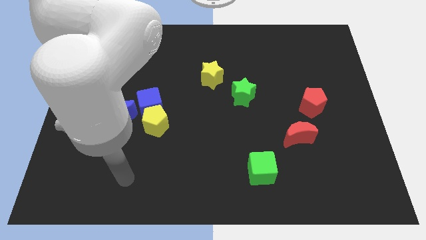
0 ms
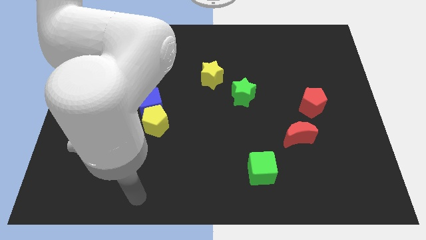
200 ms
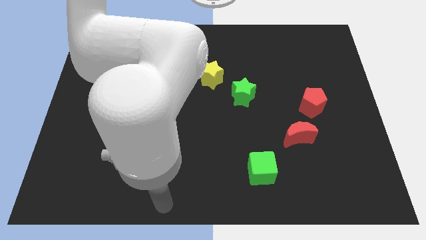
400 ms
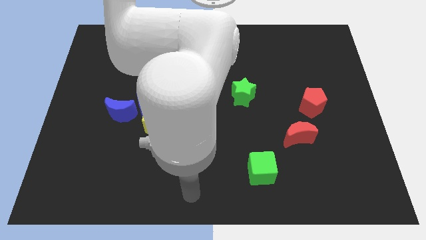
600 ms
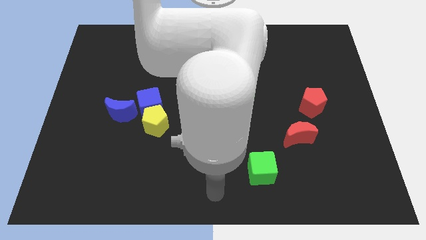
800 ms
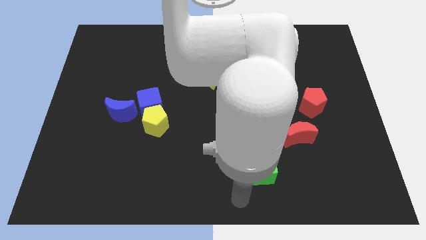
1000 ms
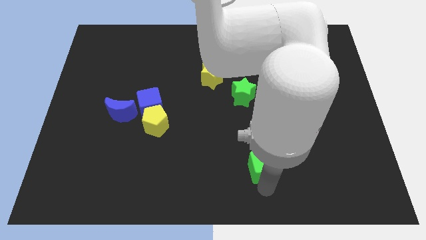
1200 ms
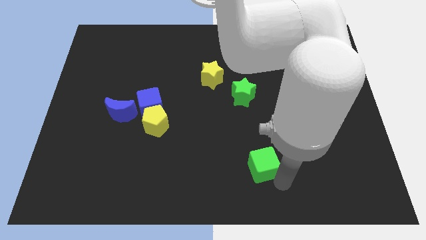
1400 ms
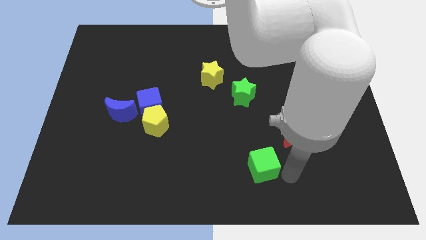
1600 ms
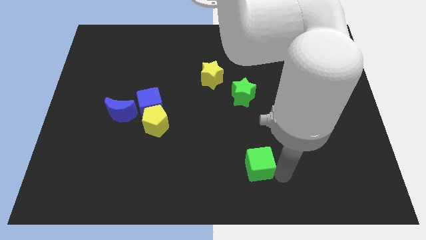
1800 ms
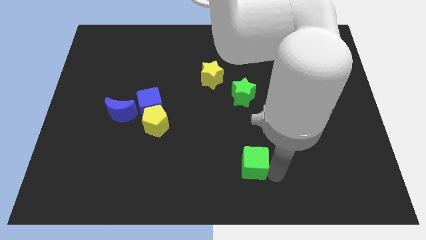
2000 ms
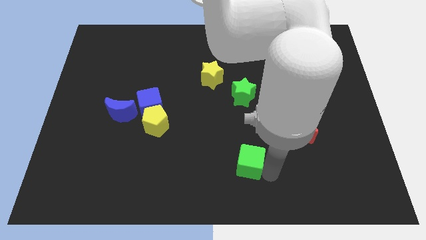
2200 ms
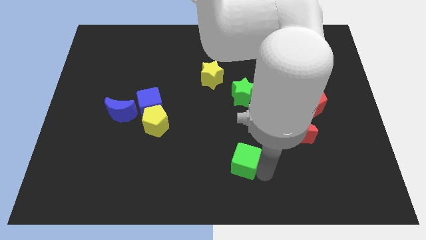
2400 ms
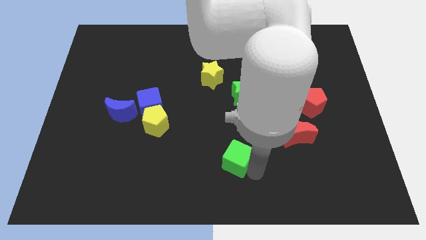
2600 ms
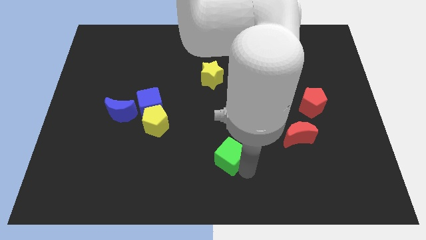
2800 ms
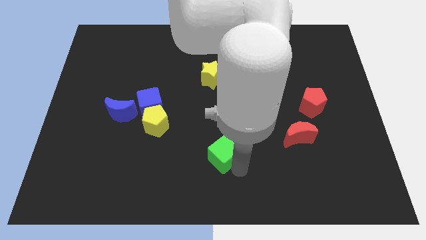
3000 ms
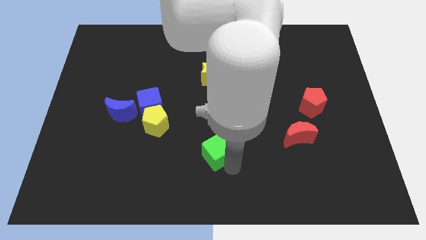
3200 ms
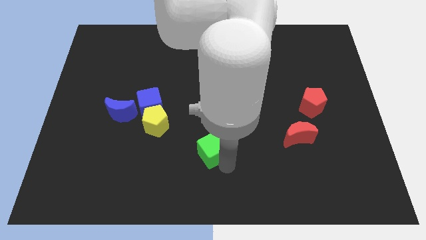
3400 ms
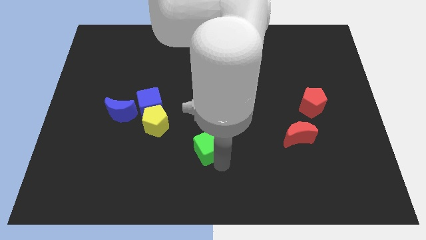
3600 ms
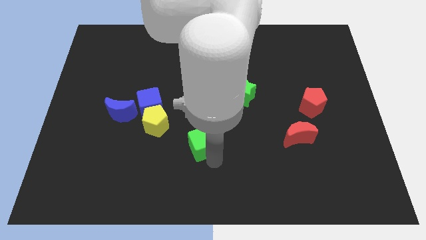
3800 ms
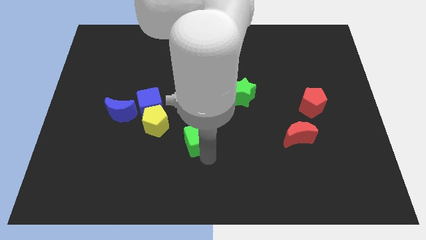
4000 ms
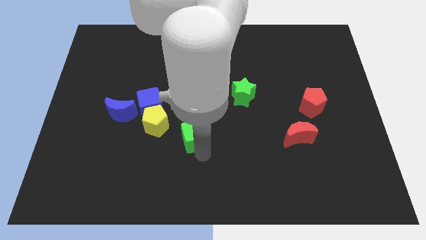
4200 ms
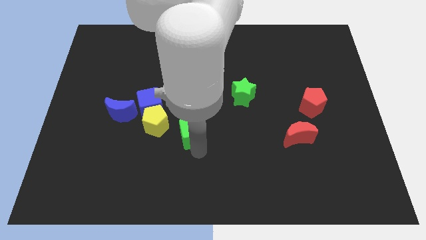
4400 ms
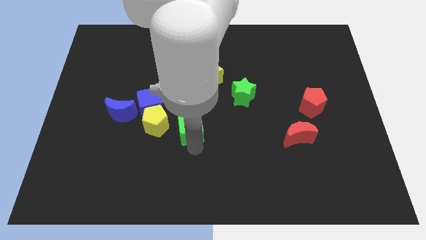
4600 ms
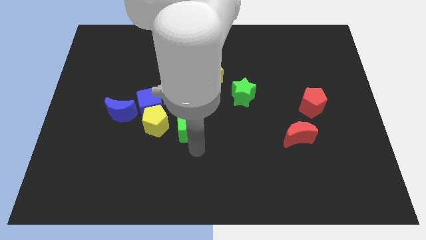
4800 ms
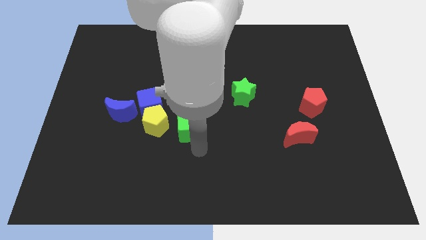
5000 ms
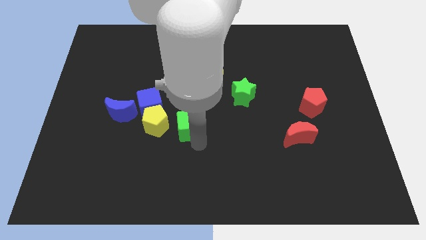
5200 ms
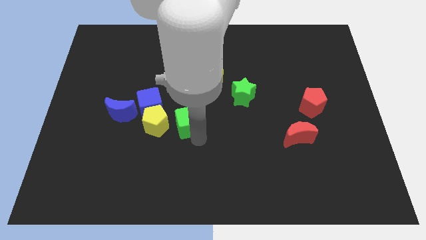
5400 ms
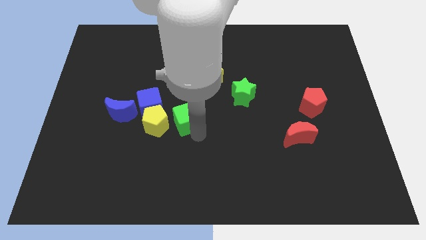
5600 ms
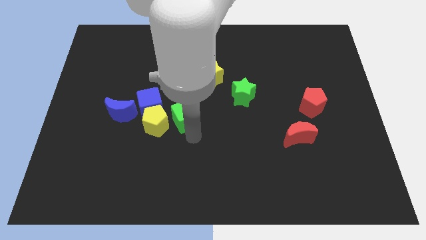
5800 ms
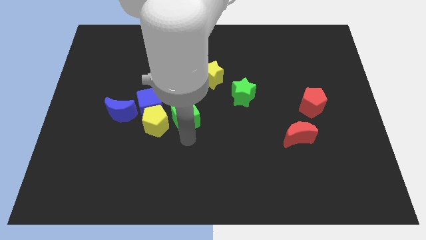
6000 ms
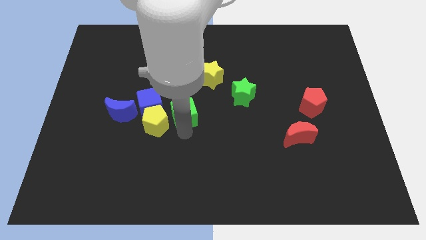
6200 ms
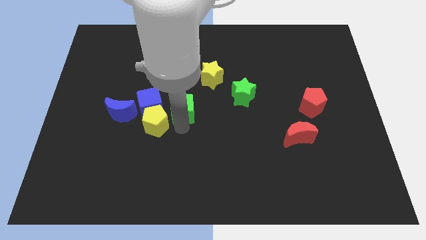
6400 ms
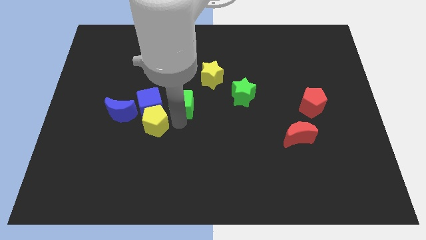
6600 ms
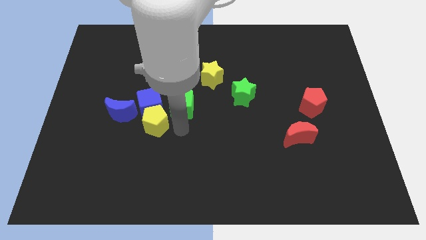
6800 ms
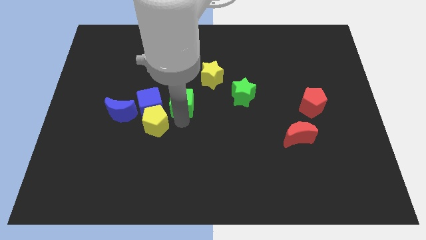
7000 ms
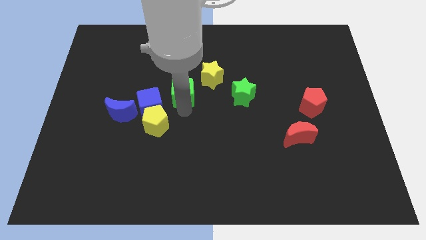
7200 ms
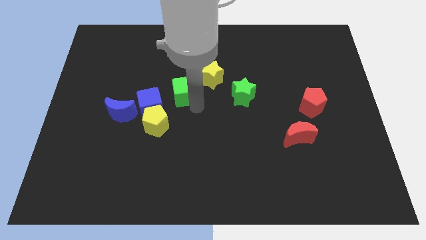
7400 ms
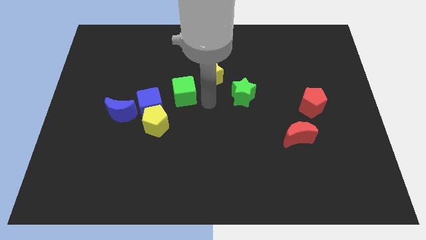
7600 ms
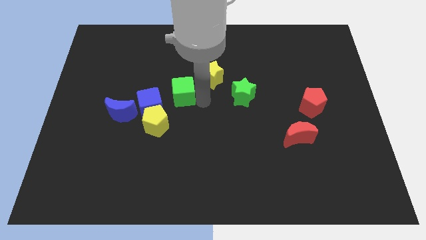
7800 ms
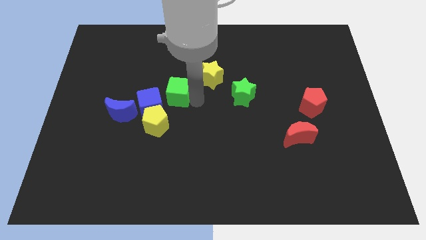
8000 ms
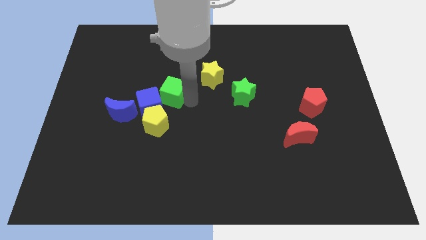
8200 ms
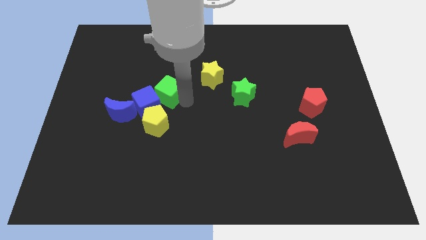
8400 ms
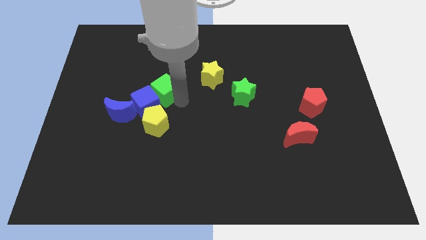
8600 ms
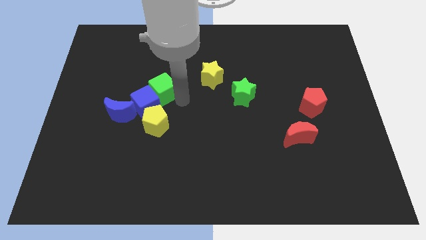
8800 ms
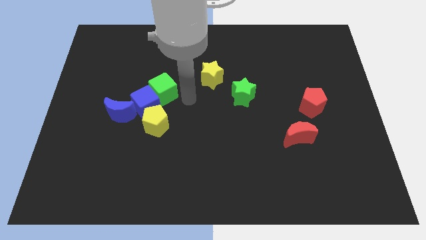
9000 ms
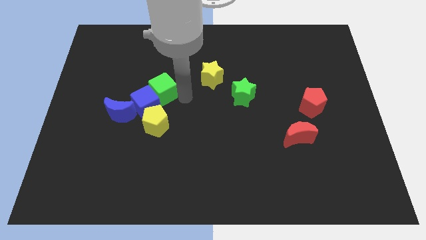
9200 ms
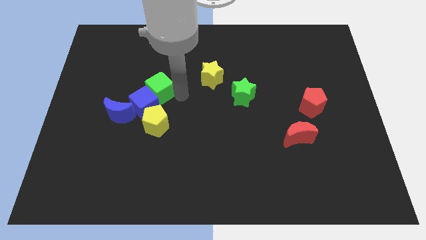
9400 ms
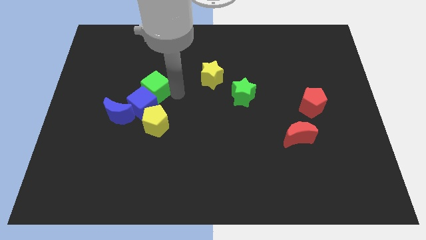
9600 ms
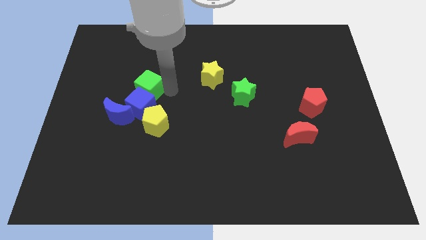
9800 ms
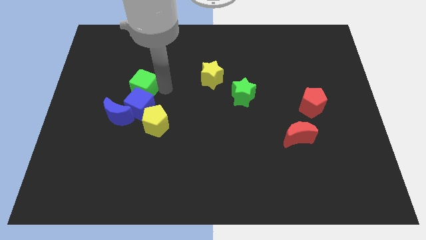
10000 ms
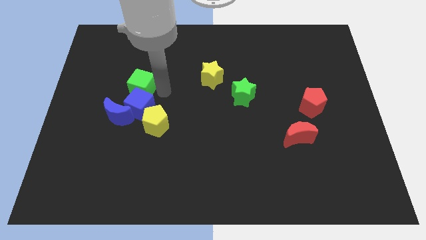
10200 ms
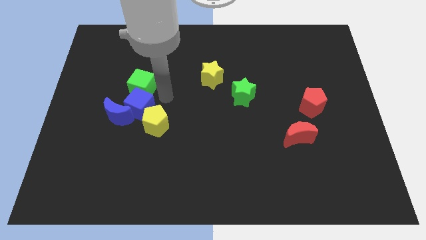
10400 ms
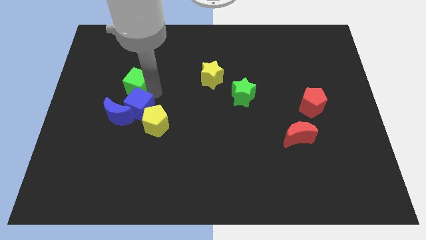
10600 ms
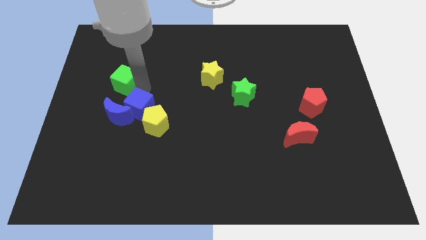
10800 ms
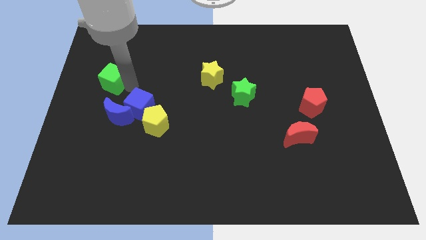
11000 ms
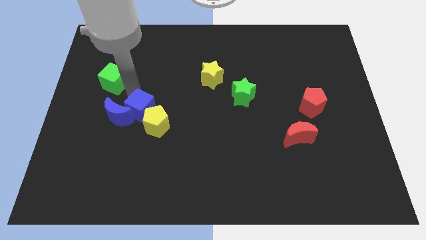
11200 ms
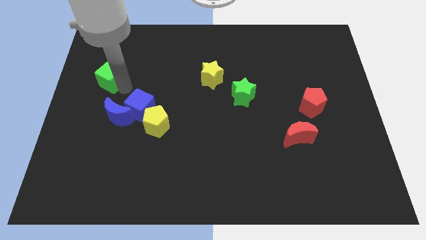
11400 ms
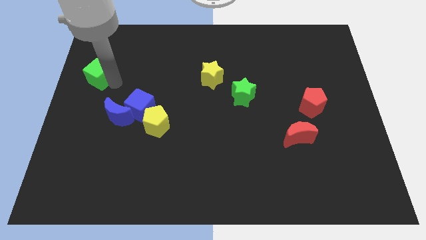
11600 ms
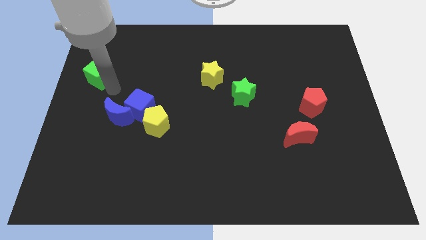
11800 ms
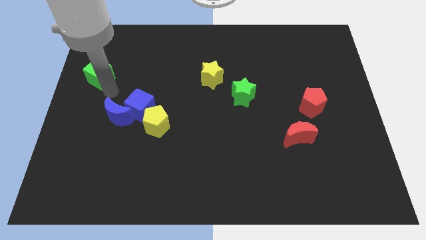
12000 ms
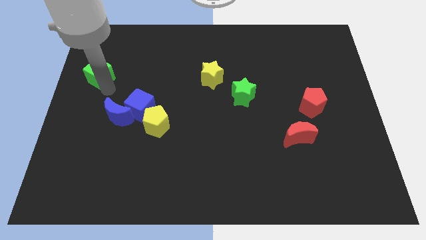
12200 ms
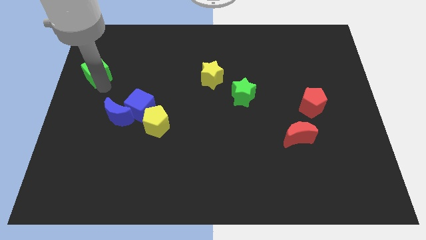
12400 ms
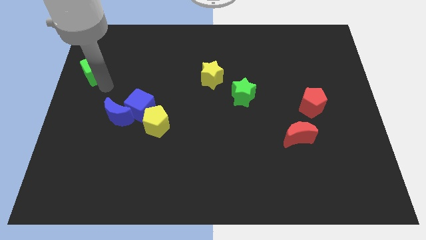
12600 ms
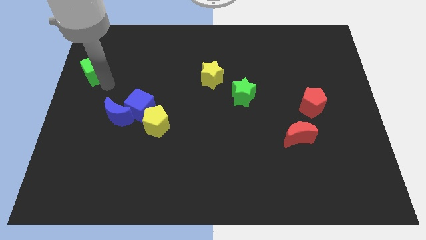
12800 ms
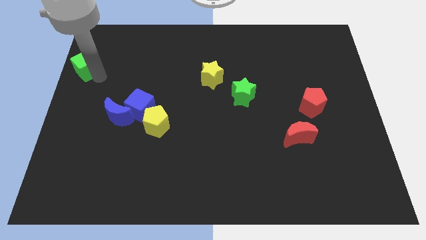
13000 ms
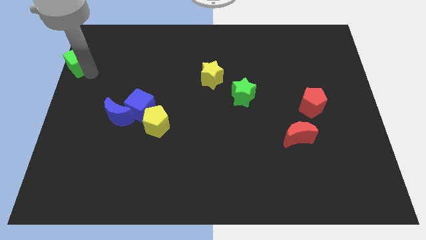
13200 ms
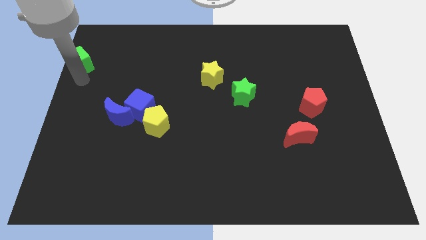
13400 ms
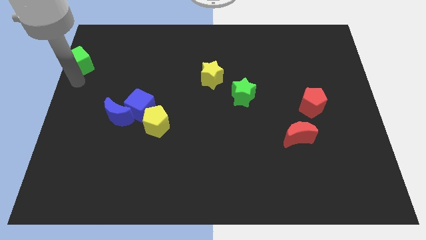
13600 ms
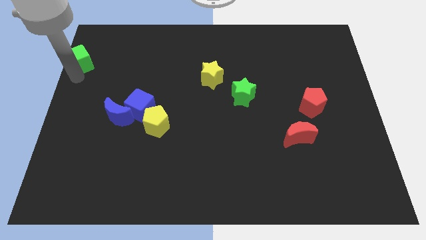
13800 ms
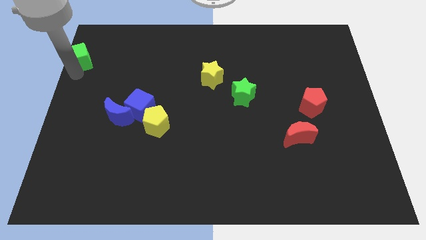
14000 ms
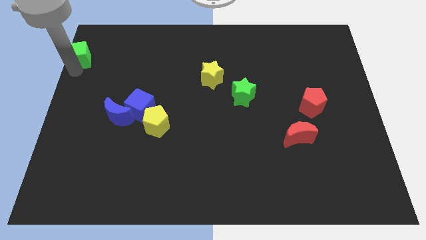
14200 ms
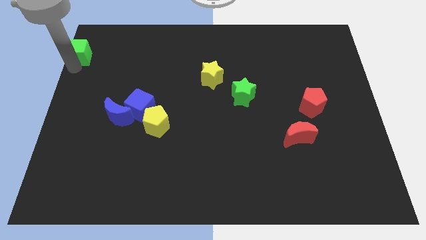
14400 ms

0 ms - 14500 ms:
move the green cube to the top left of the board
